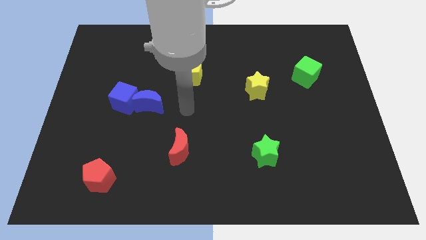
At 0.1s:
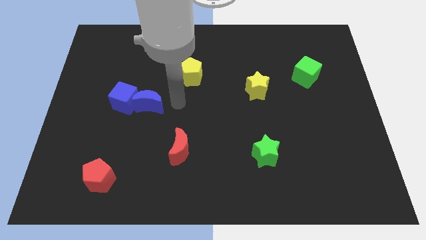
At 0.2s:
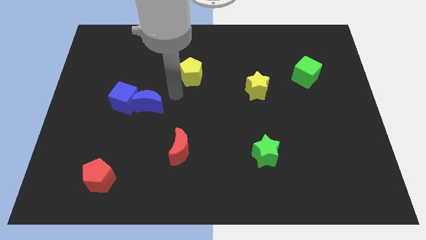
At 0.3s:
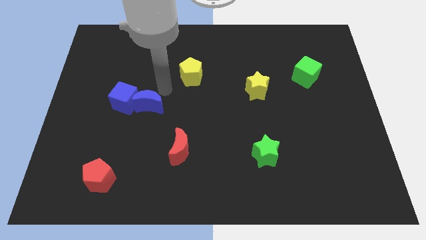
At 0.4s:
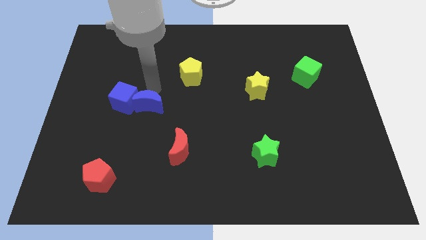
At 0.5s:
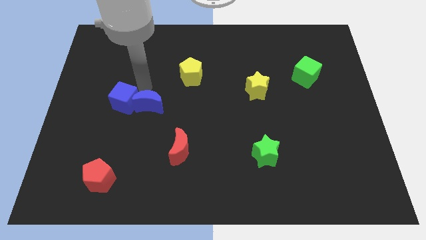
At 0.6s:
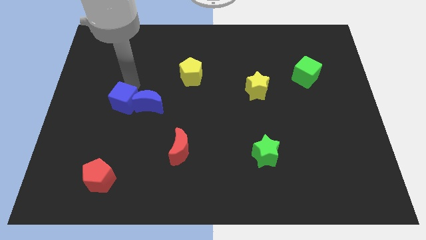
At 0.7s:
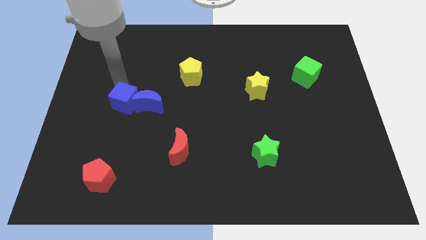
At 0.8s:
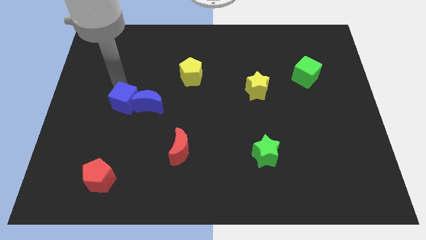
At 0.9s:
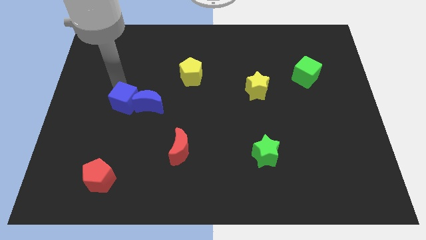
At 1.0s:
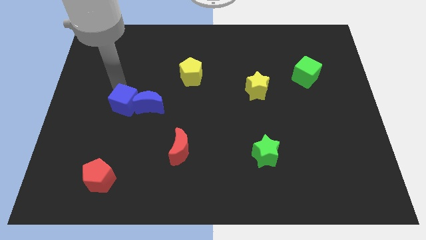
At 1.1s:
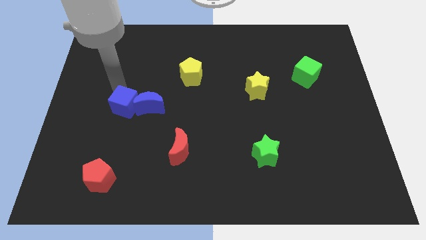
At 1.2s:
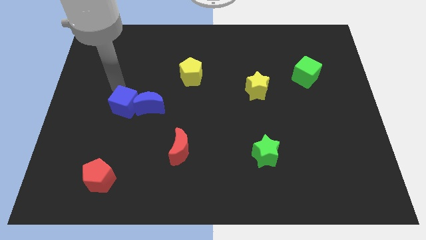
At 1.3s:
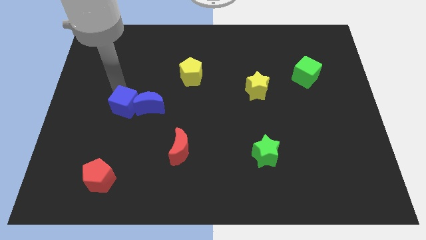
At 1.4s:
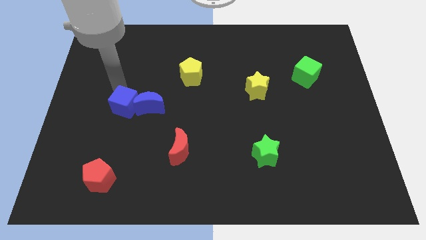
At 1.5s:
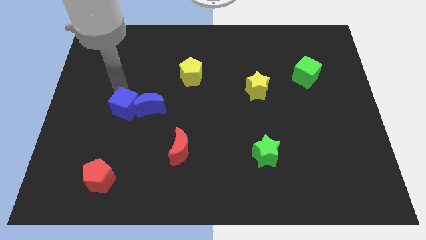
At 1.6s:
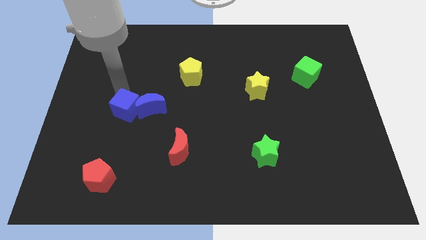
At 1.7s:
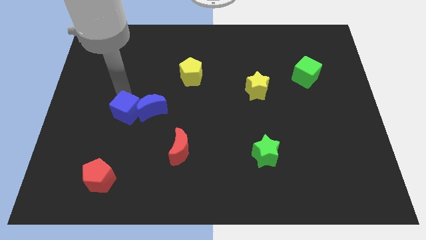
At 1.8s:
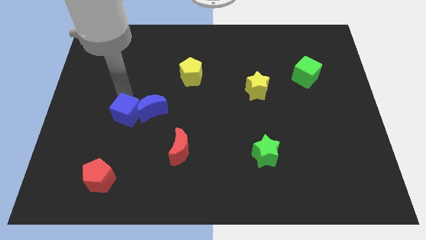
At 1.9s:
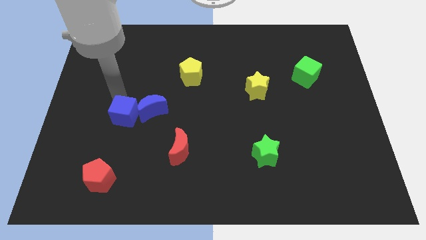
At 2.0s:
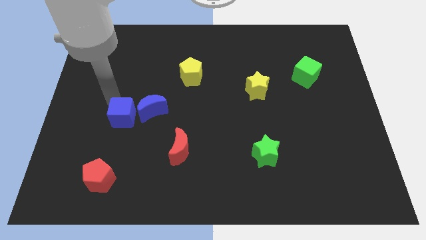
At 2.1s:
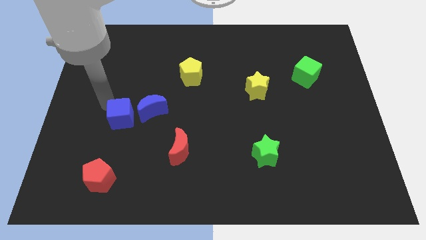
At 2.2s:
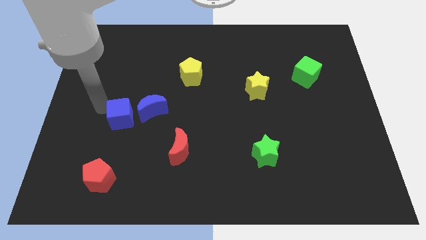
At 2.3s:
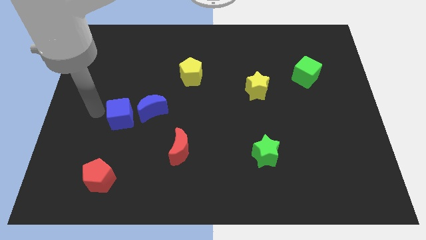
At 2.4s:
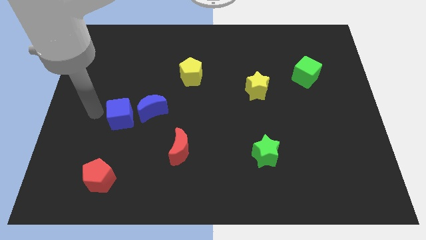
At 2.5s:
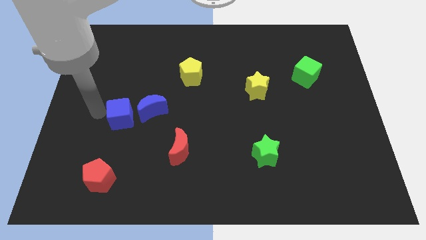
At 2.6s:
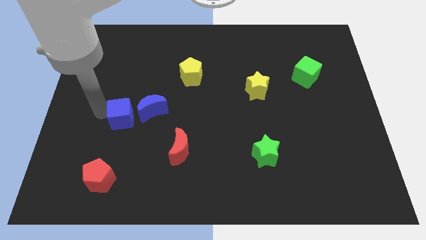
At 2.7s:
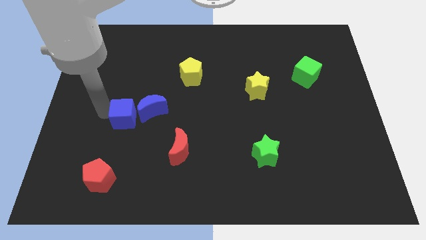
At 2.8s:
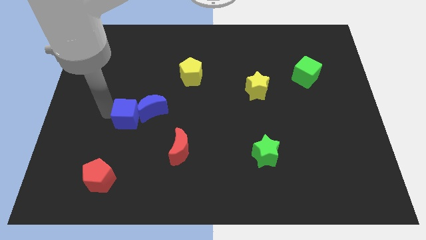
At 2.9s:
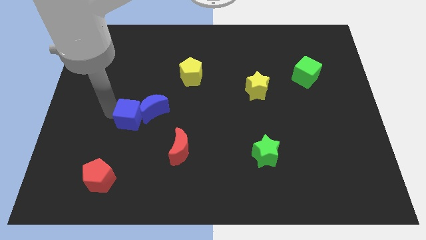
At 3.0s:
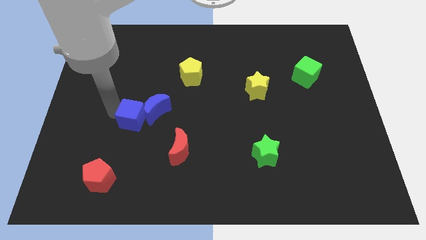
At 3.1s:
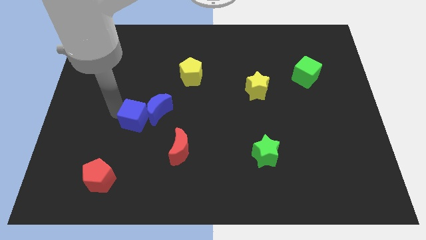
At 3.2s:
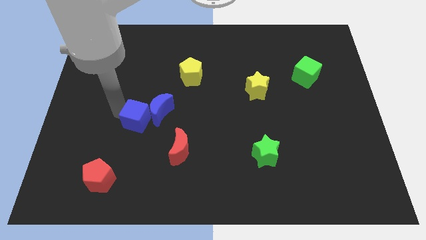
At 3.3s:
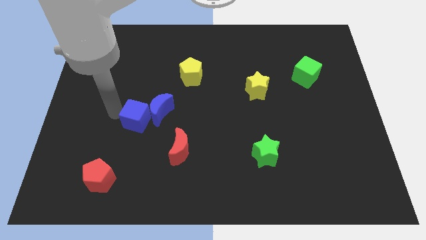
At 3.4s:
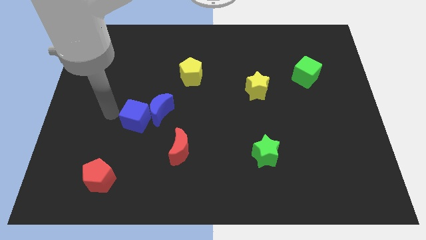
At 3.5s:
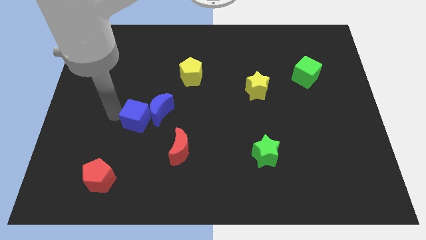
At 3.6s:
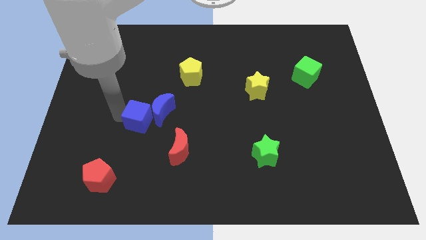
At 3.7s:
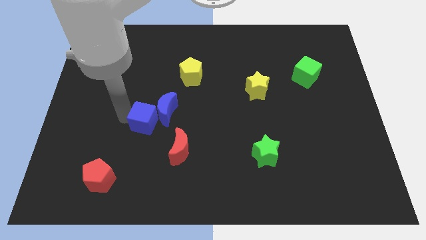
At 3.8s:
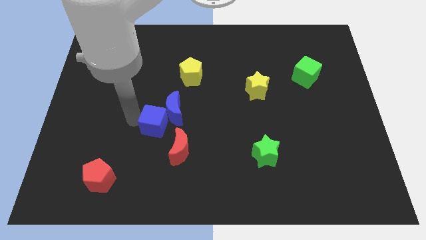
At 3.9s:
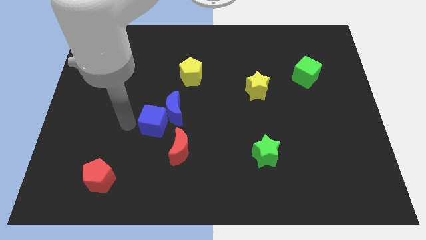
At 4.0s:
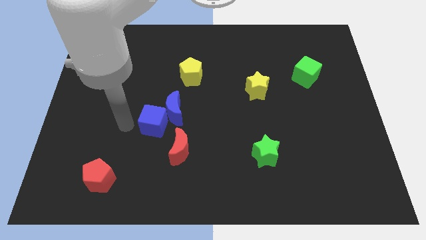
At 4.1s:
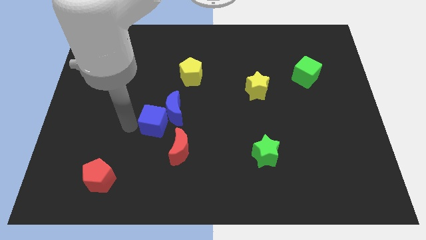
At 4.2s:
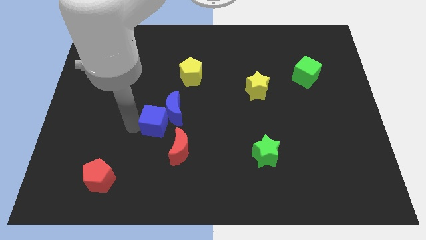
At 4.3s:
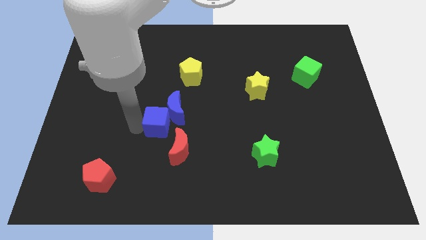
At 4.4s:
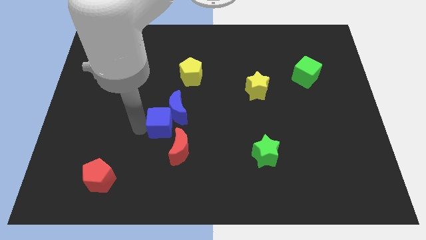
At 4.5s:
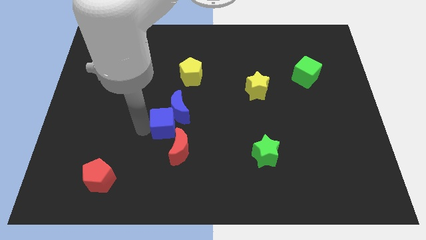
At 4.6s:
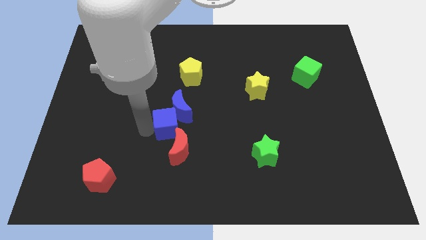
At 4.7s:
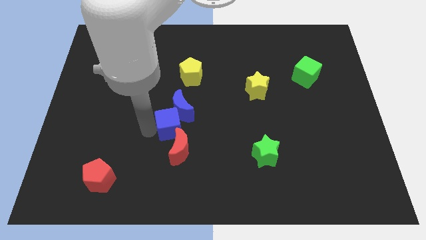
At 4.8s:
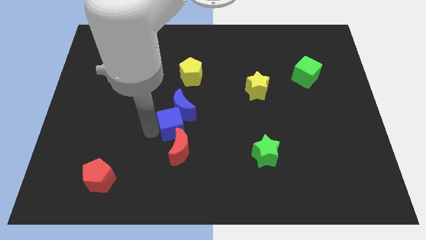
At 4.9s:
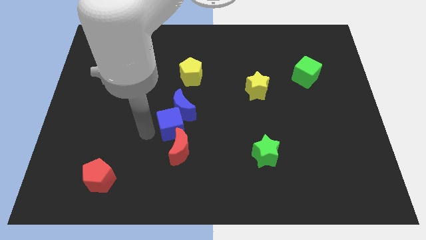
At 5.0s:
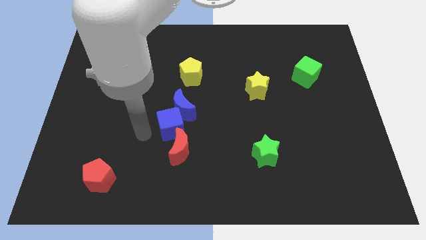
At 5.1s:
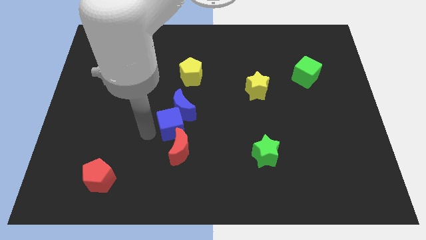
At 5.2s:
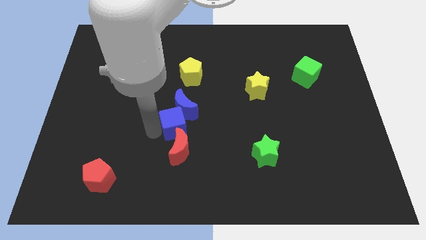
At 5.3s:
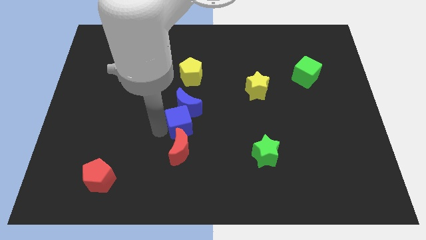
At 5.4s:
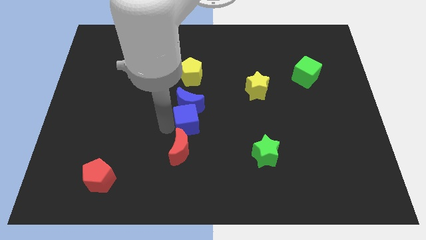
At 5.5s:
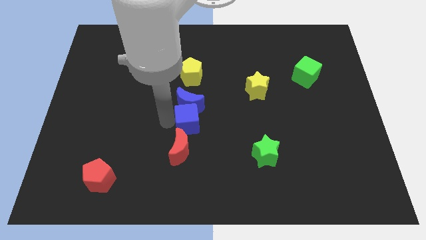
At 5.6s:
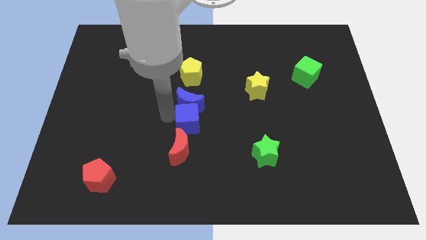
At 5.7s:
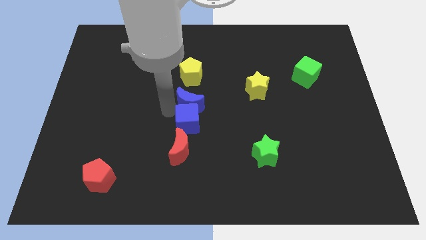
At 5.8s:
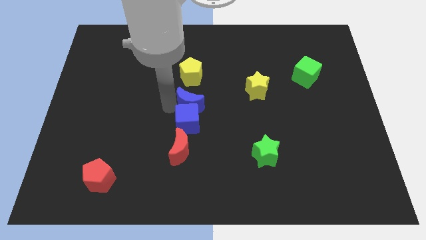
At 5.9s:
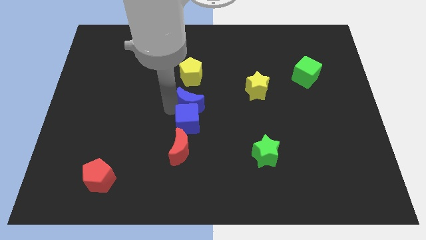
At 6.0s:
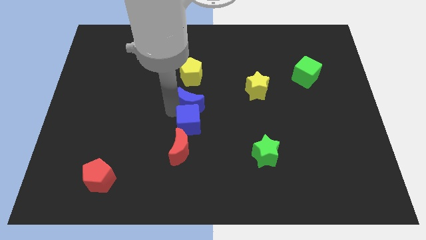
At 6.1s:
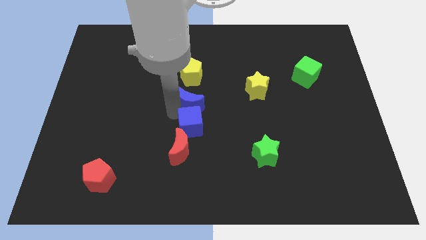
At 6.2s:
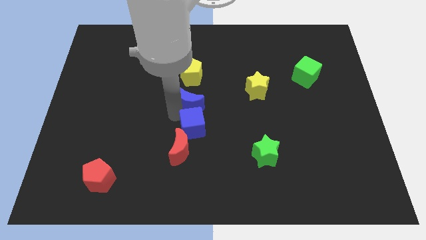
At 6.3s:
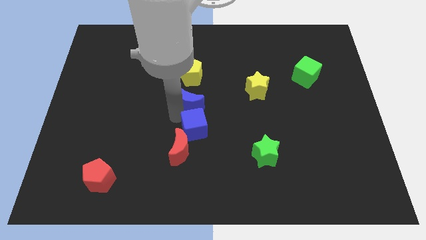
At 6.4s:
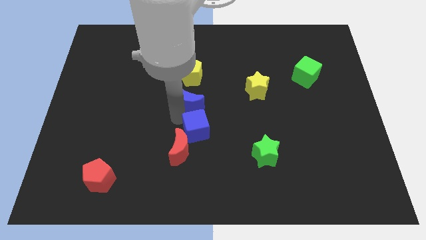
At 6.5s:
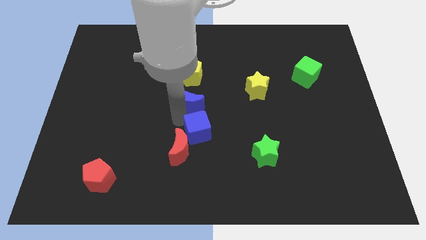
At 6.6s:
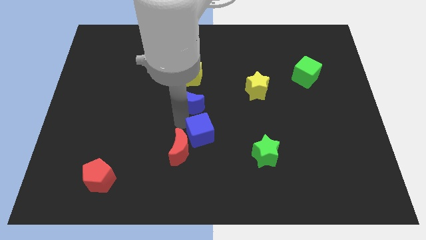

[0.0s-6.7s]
move the blue cube to the right side of the red moon

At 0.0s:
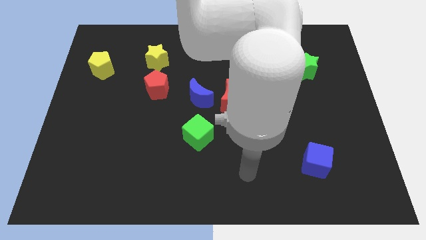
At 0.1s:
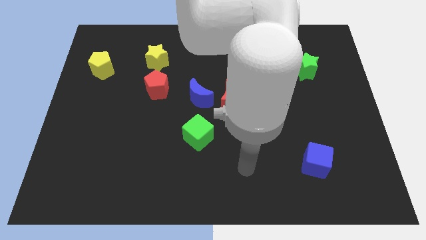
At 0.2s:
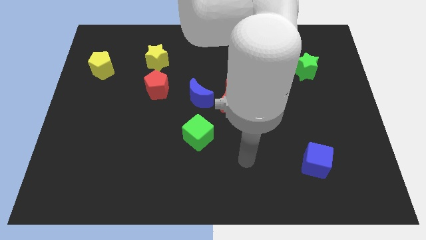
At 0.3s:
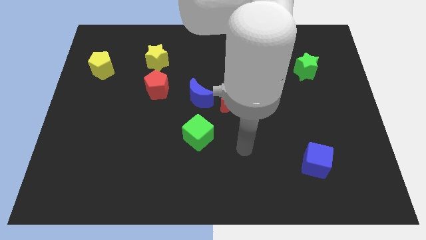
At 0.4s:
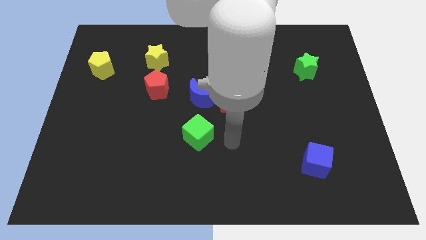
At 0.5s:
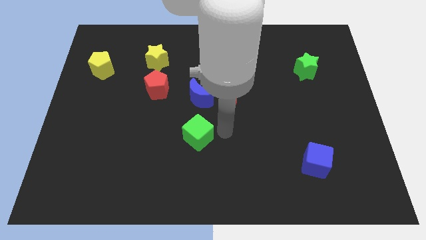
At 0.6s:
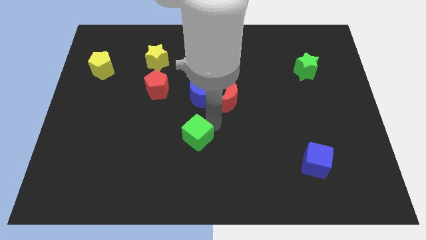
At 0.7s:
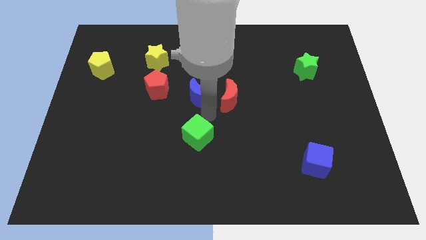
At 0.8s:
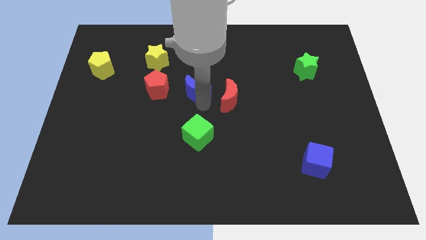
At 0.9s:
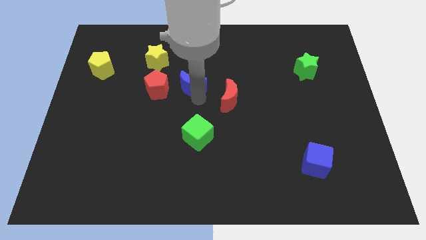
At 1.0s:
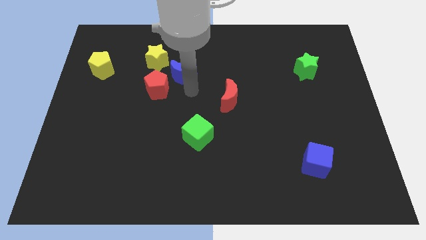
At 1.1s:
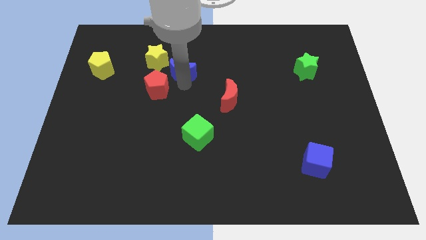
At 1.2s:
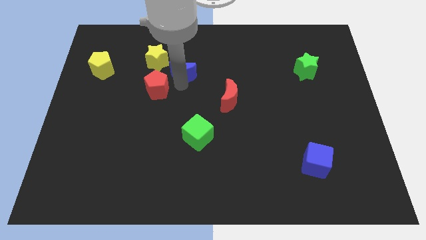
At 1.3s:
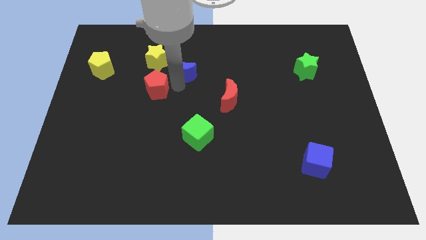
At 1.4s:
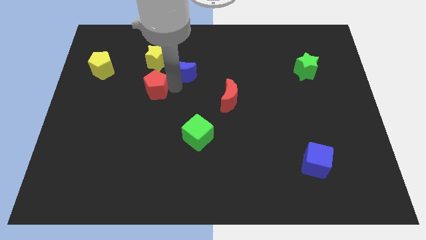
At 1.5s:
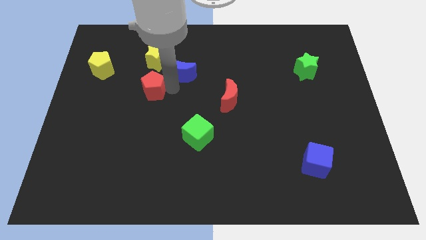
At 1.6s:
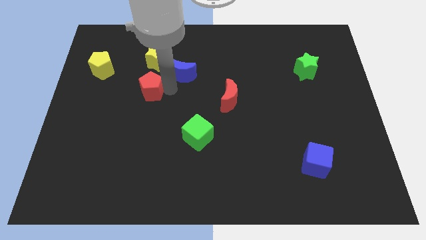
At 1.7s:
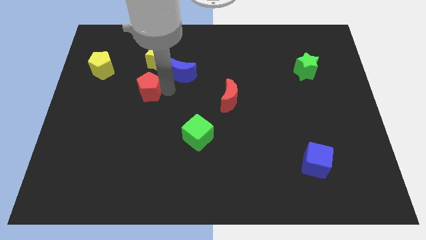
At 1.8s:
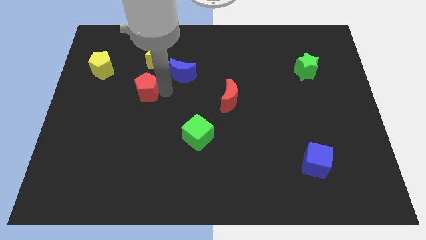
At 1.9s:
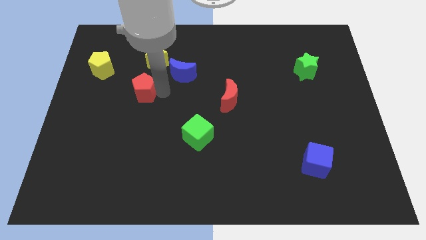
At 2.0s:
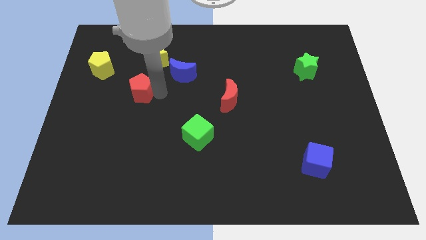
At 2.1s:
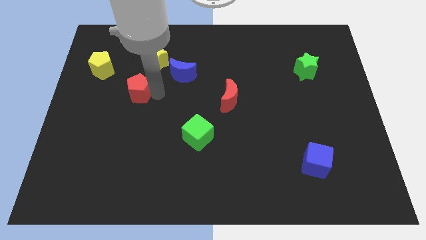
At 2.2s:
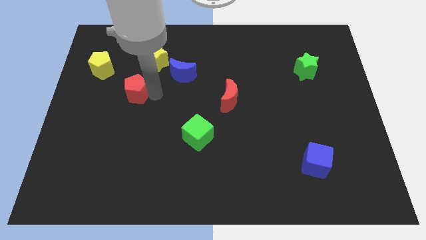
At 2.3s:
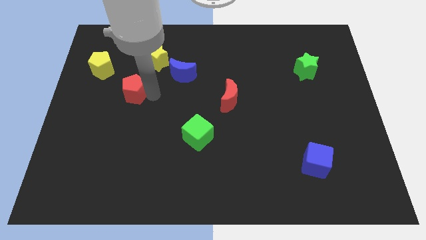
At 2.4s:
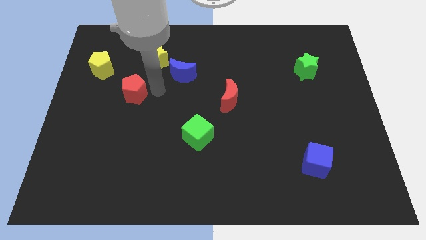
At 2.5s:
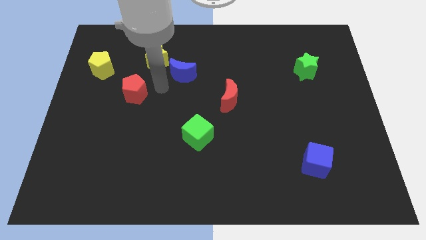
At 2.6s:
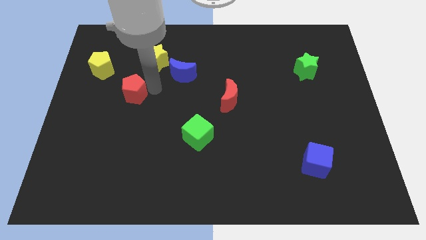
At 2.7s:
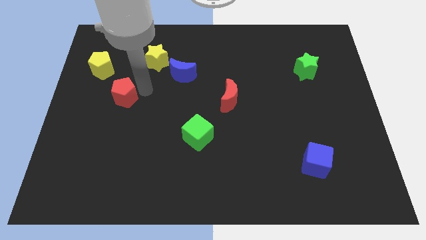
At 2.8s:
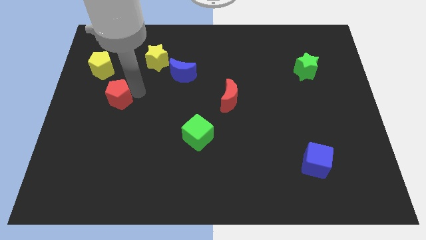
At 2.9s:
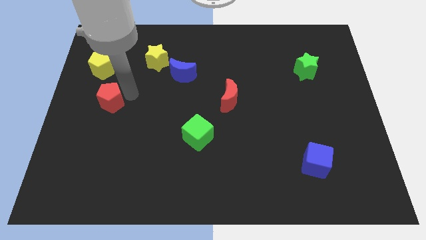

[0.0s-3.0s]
slide the red pentagon below the yellow pentagon
